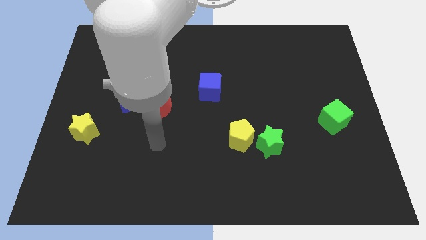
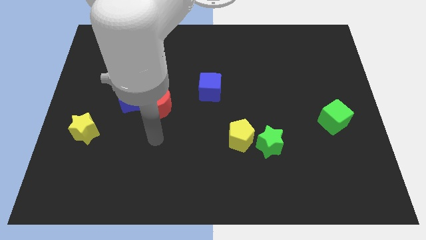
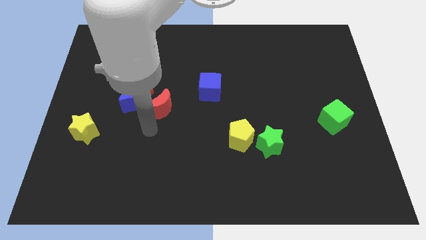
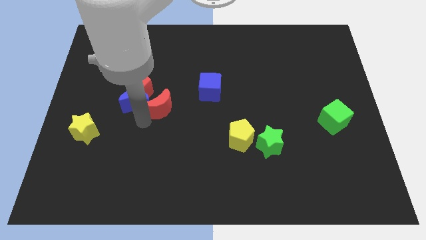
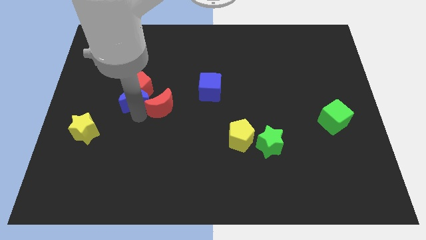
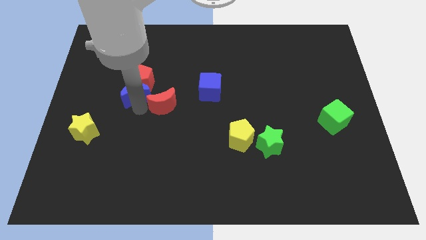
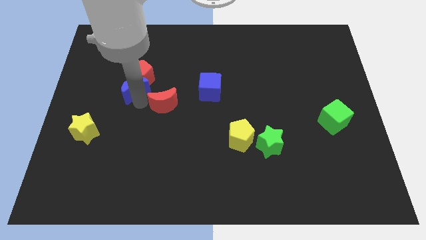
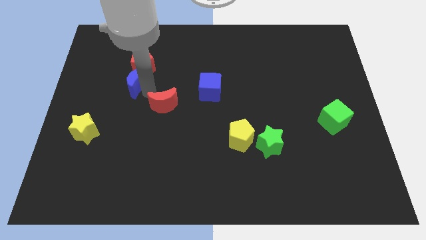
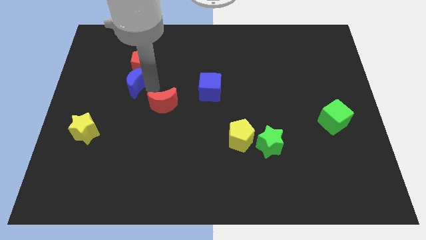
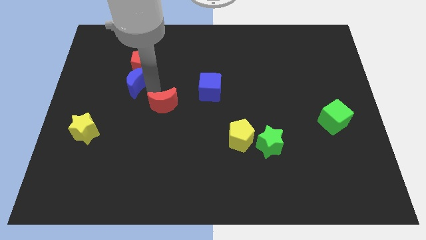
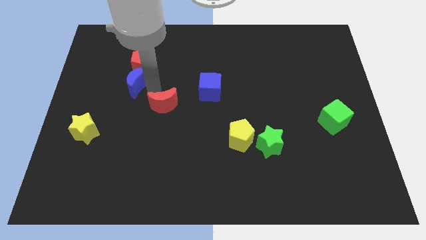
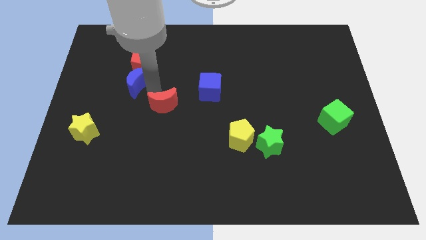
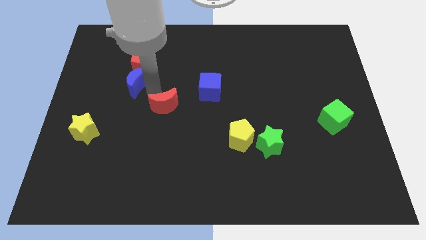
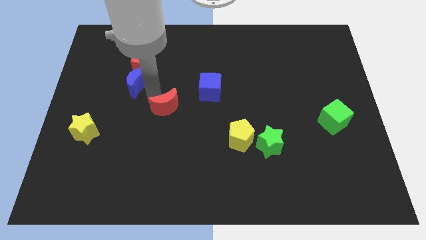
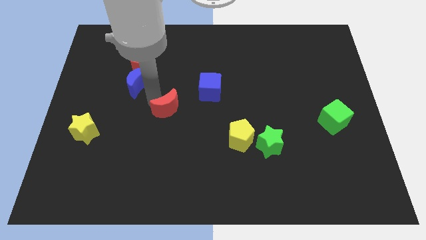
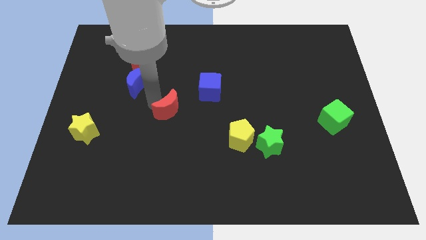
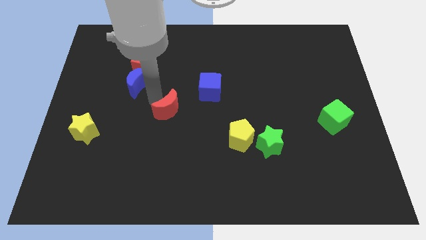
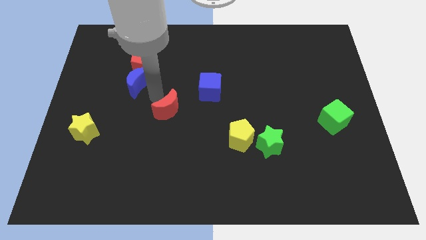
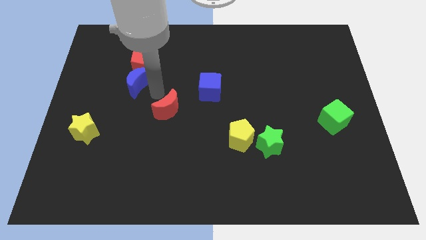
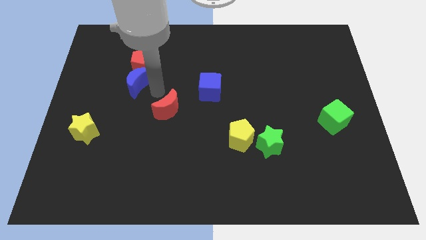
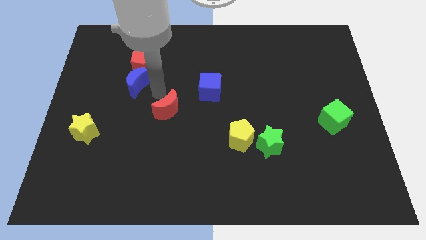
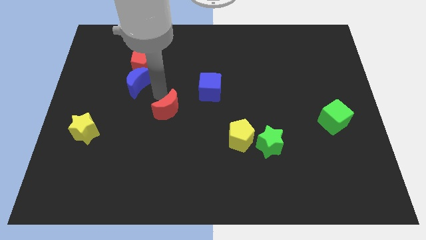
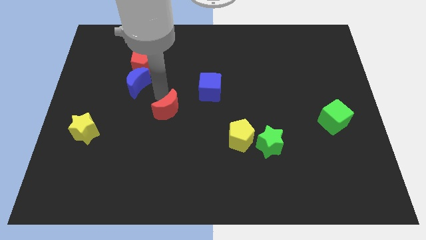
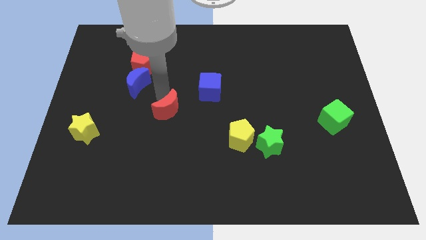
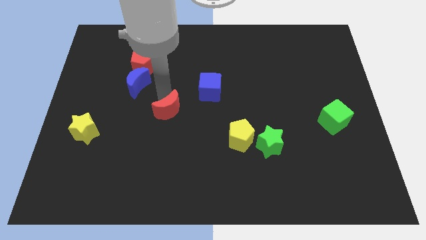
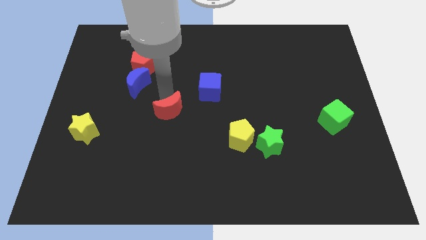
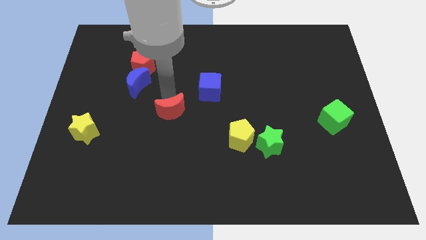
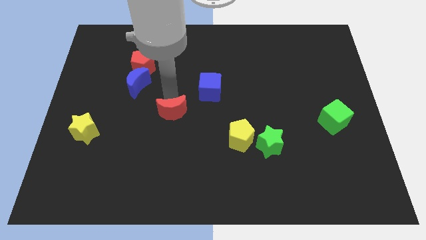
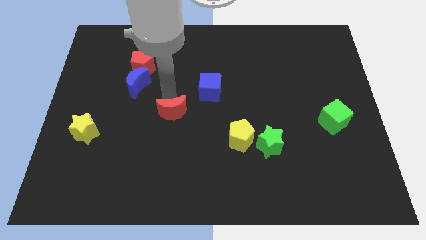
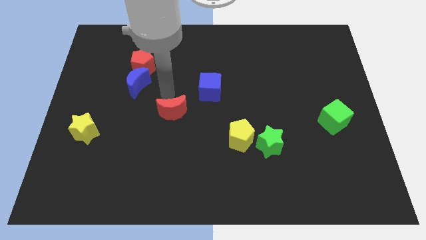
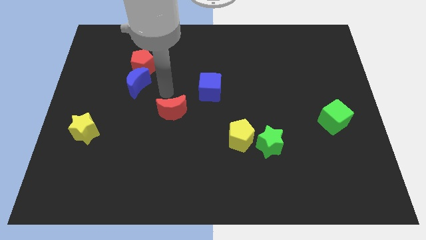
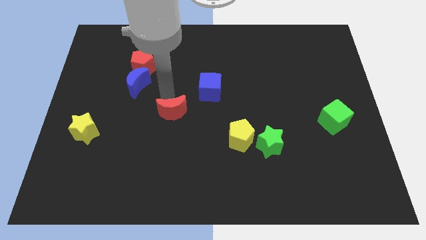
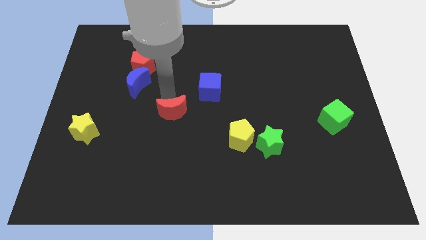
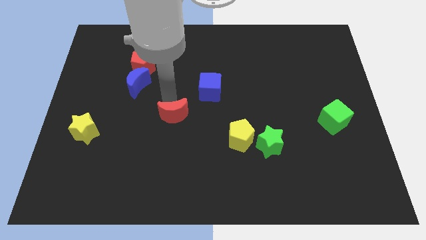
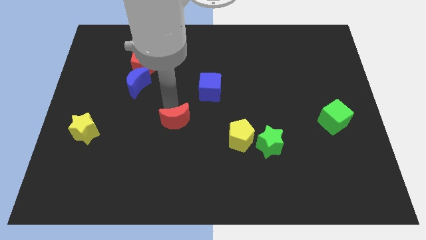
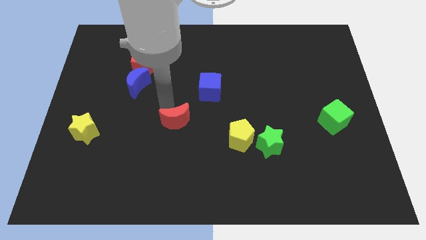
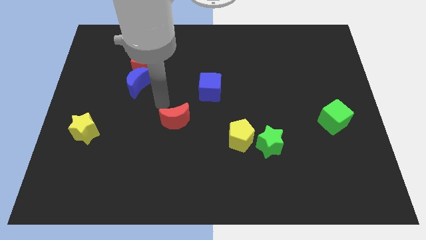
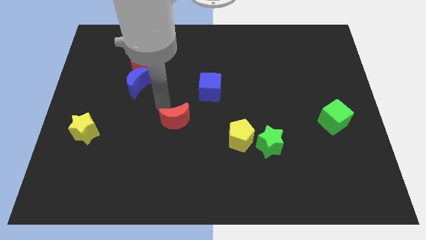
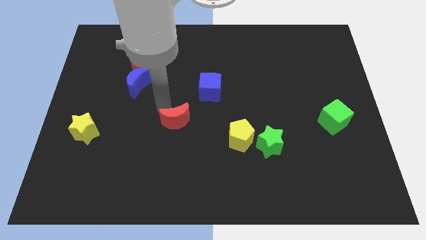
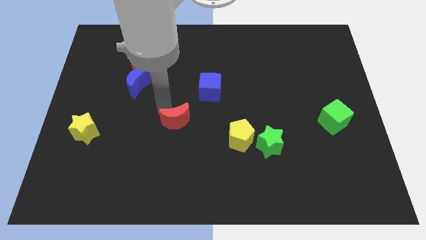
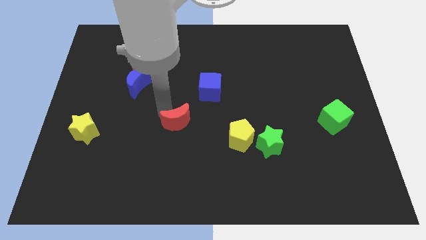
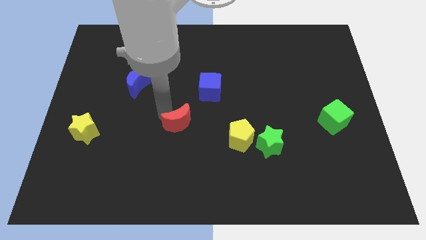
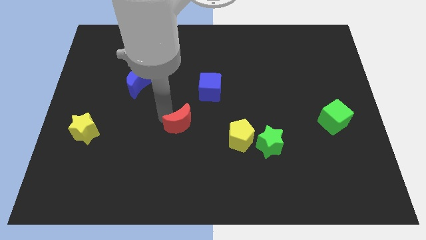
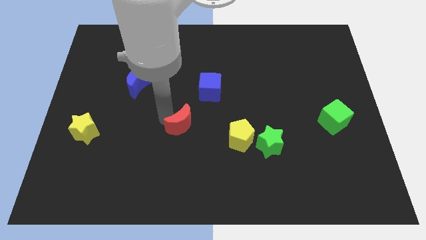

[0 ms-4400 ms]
slightly push the red moon diagonally downwards and to the right

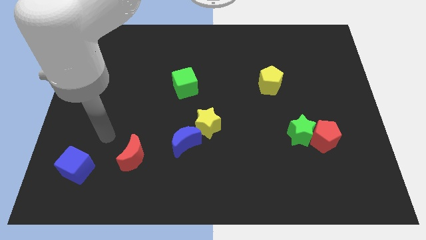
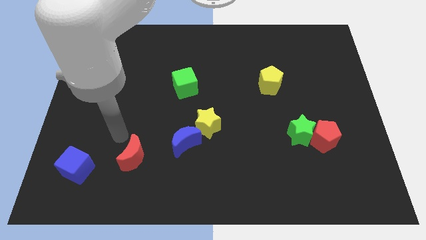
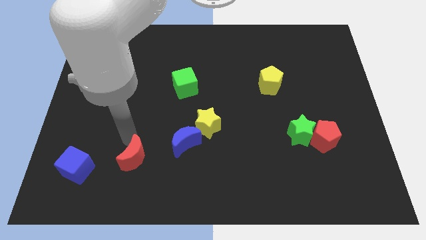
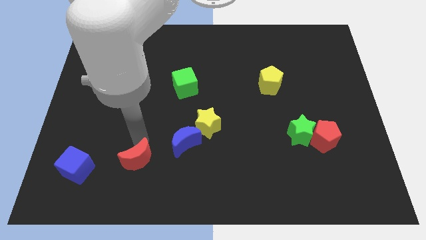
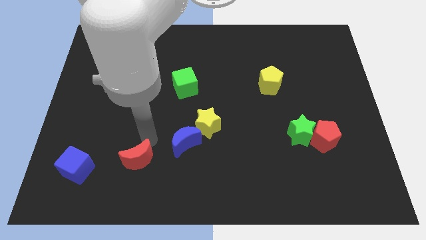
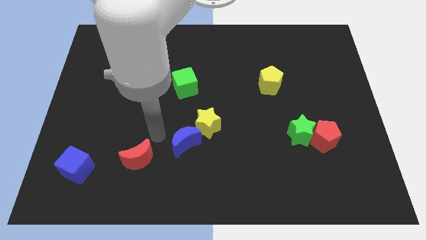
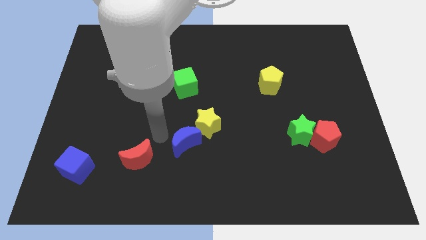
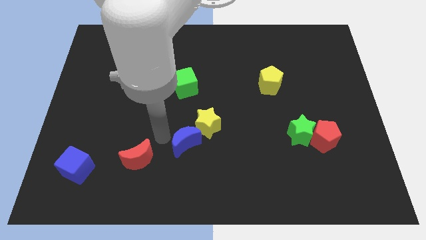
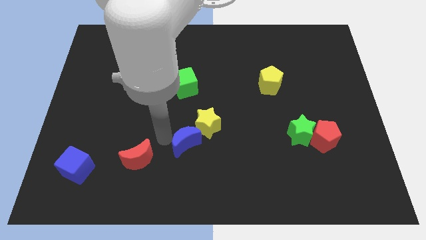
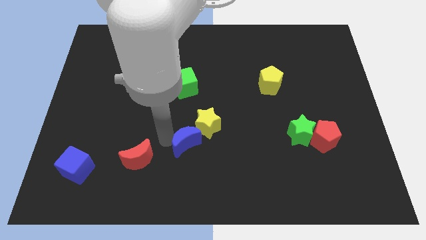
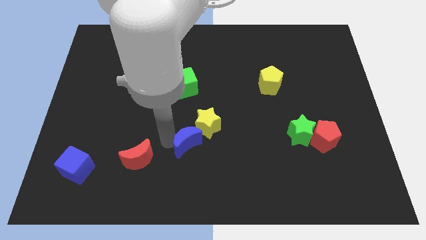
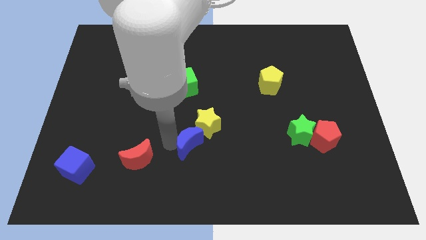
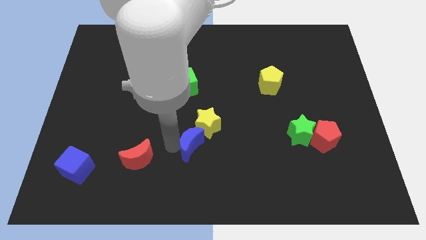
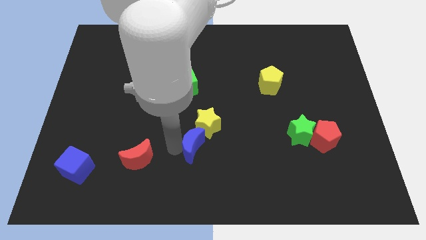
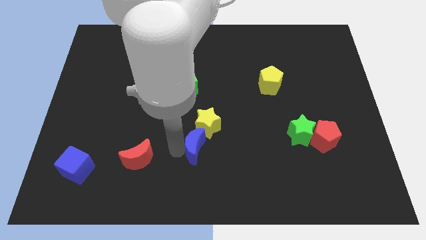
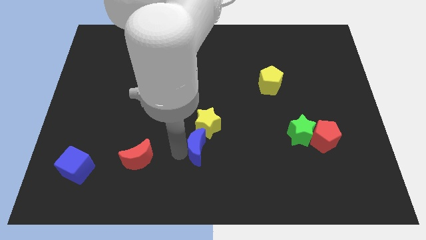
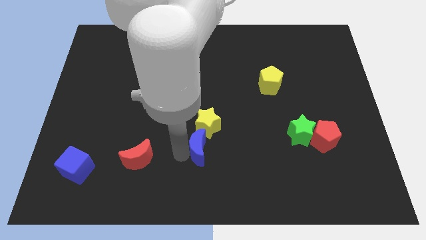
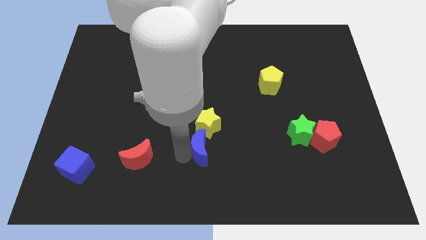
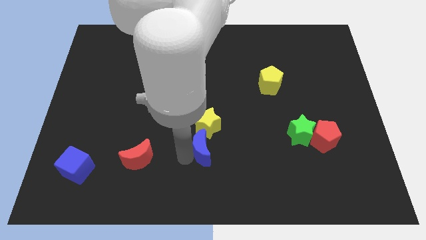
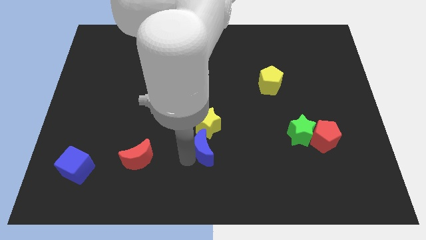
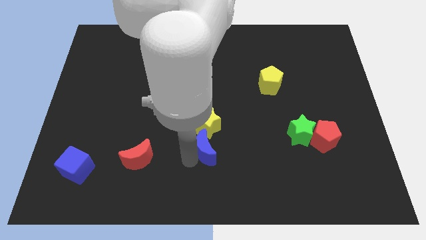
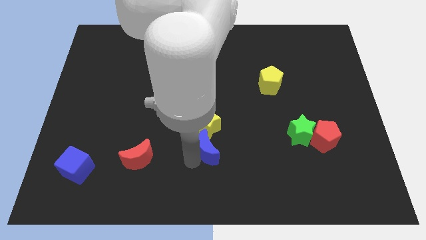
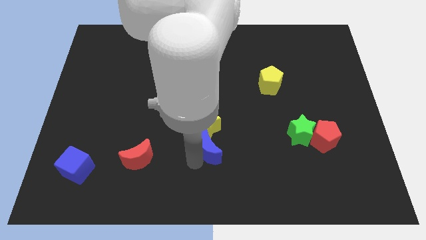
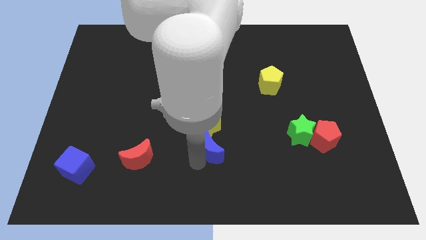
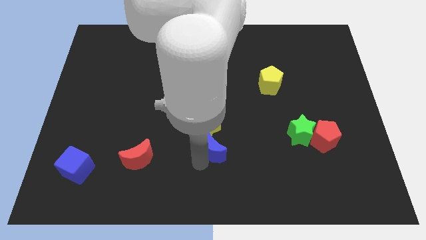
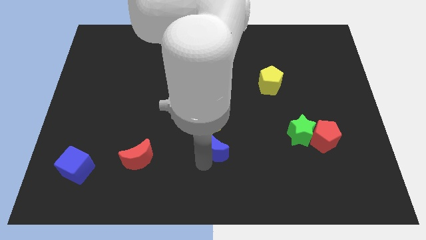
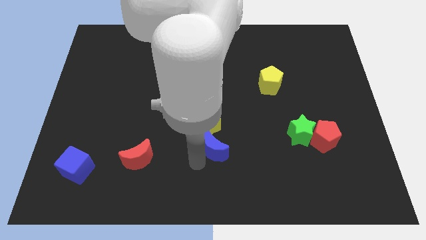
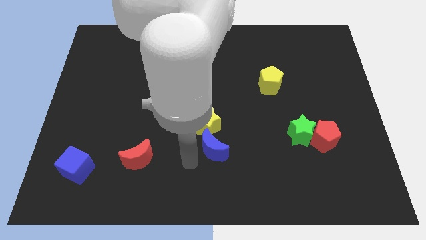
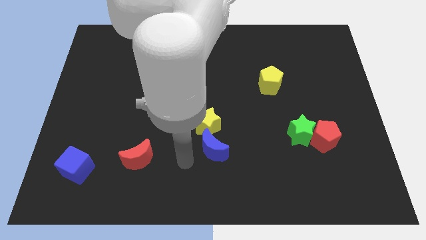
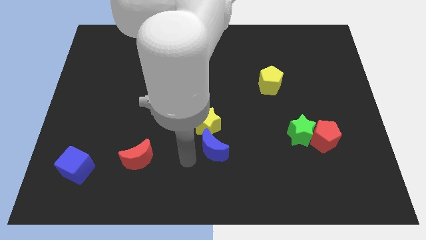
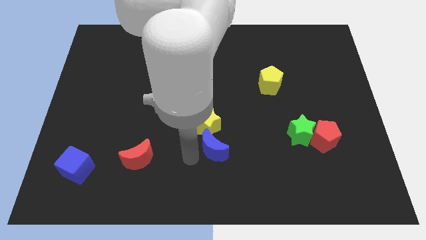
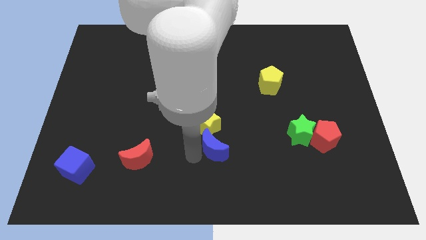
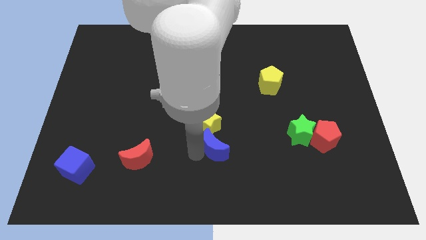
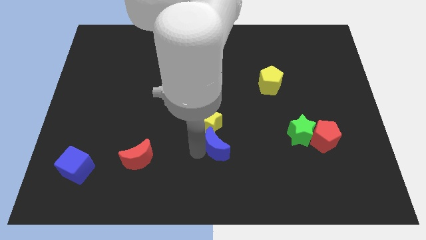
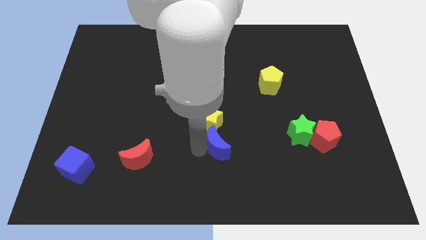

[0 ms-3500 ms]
move the blue moon slightly right

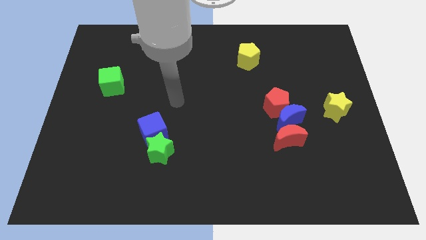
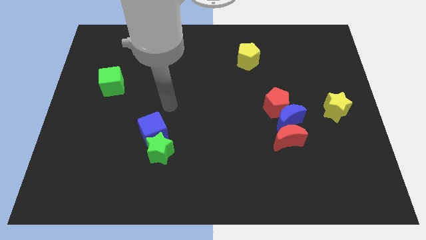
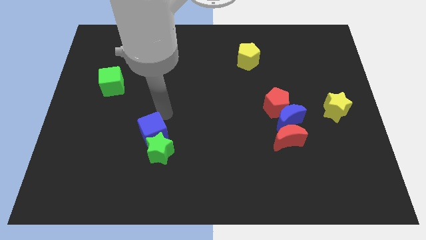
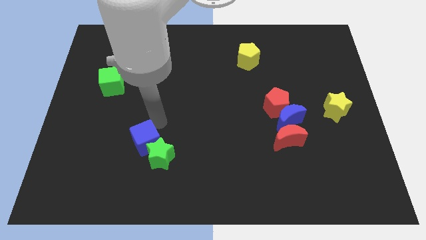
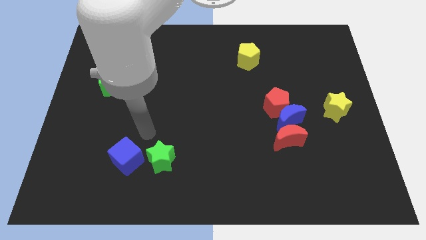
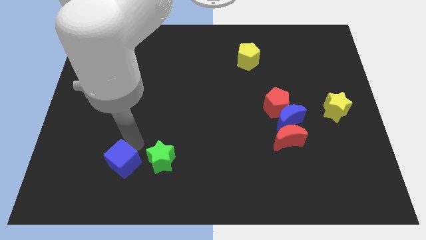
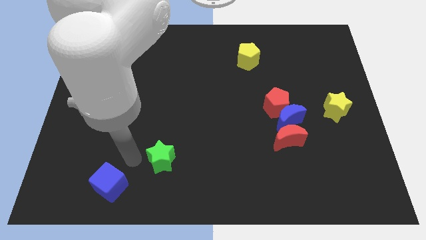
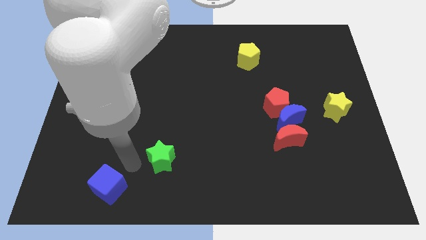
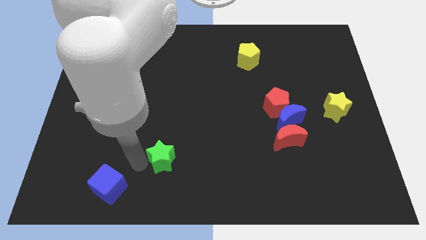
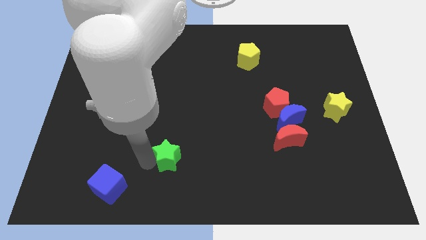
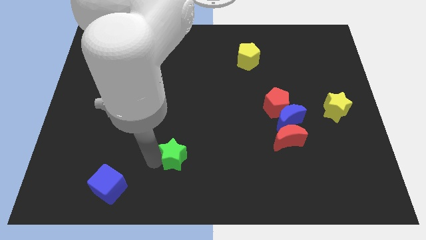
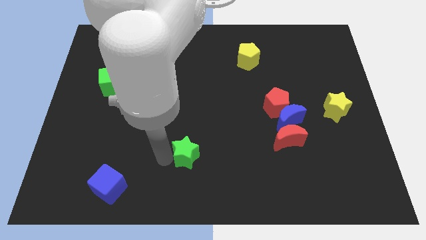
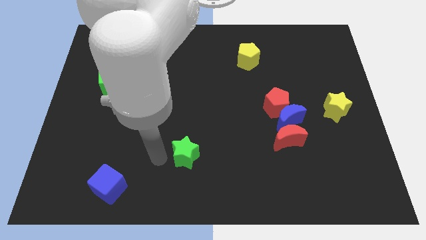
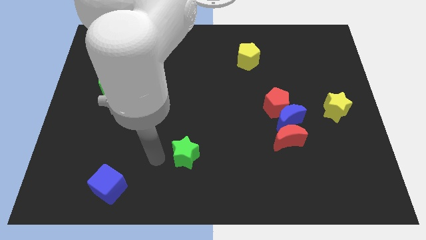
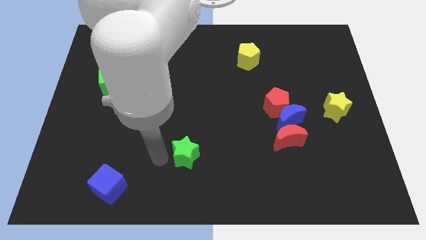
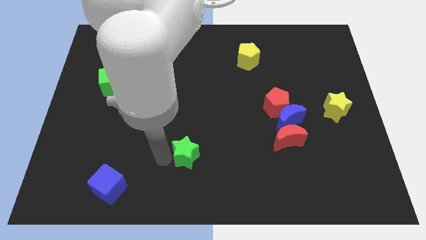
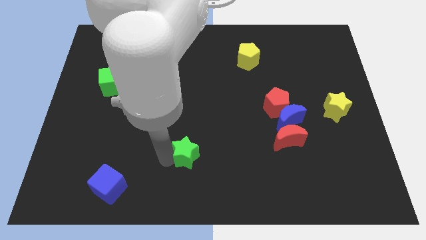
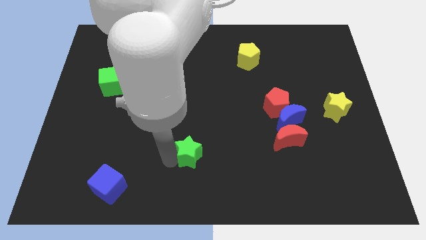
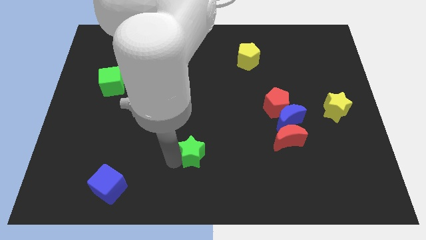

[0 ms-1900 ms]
push the green star a little bit to the right
